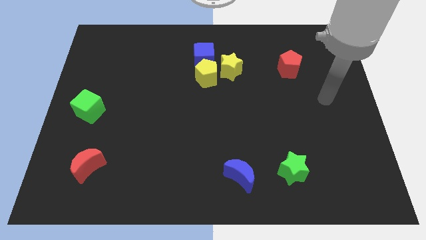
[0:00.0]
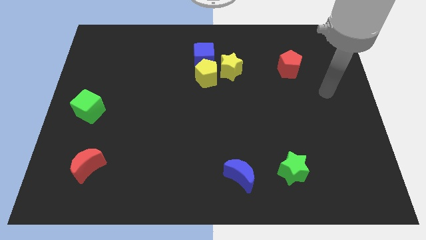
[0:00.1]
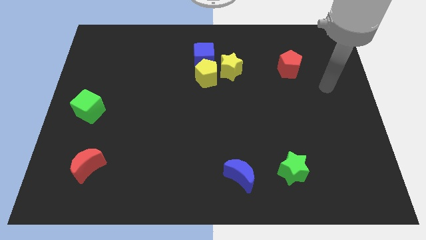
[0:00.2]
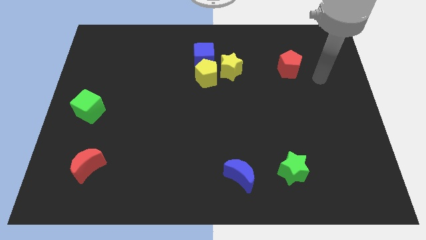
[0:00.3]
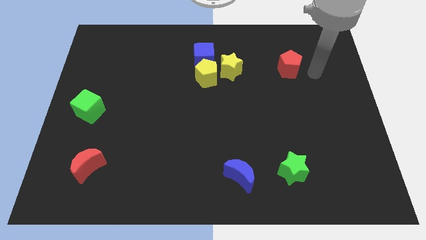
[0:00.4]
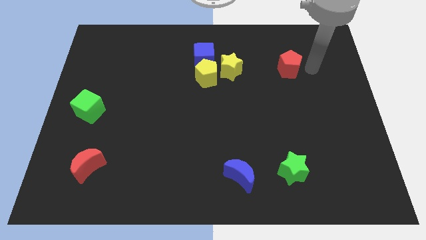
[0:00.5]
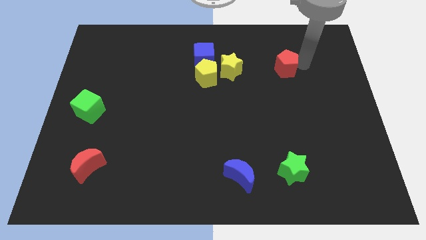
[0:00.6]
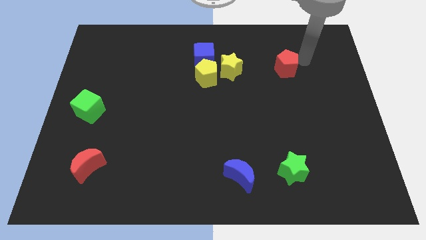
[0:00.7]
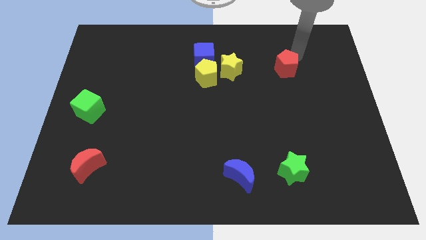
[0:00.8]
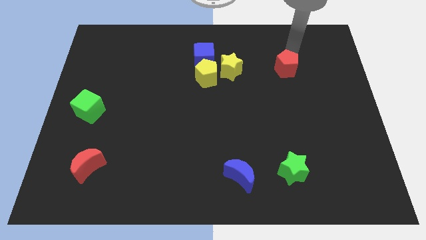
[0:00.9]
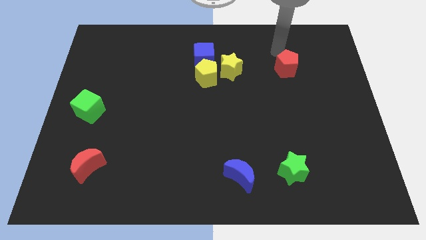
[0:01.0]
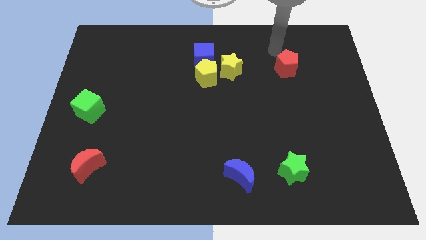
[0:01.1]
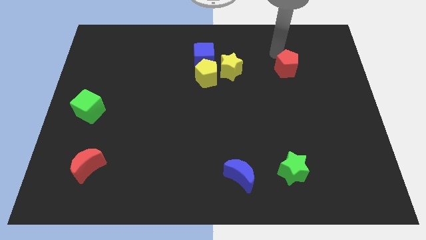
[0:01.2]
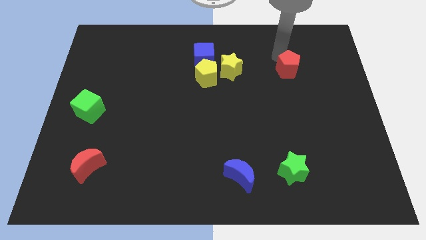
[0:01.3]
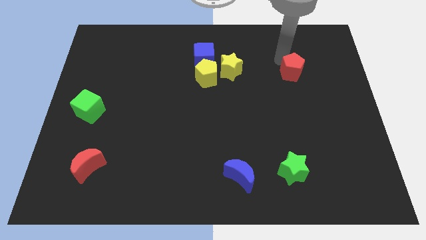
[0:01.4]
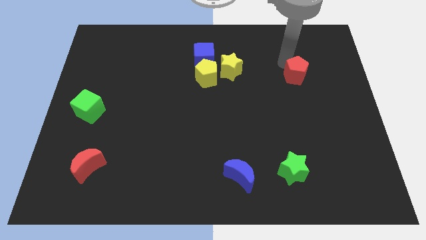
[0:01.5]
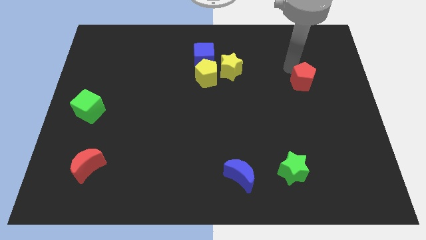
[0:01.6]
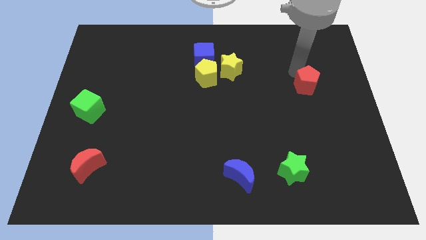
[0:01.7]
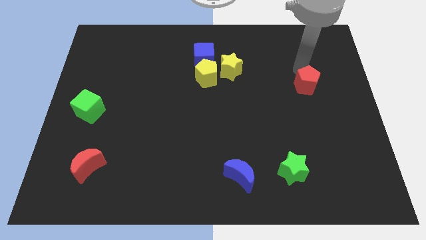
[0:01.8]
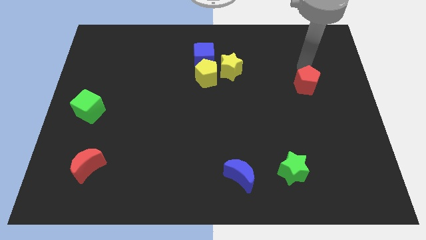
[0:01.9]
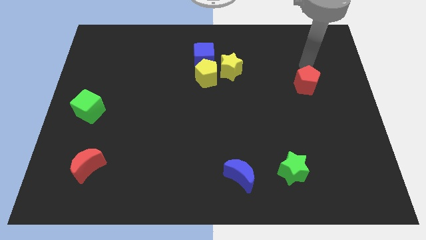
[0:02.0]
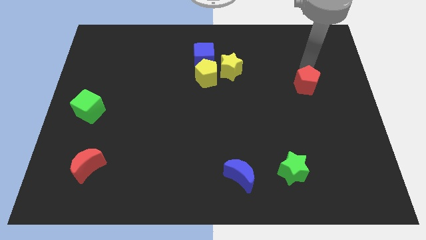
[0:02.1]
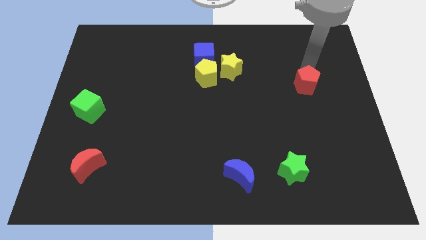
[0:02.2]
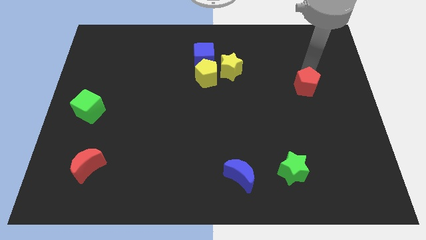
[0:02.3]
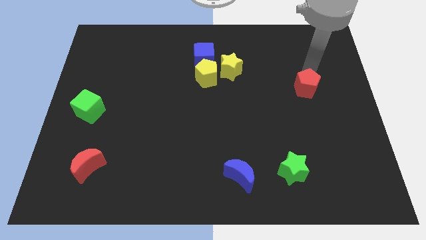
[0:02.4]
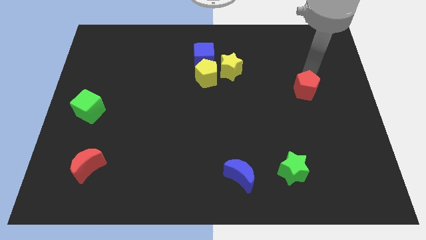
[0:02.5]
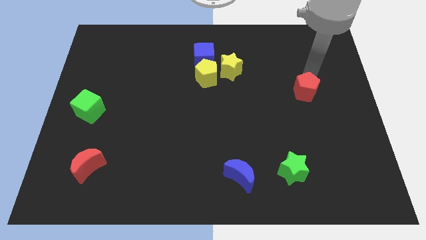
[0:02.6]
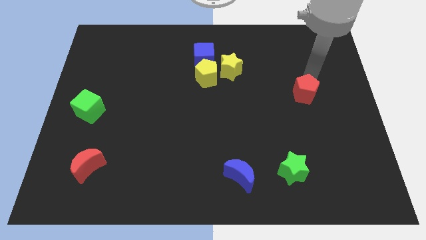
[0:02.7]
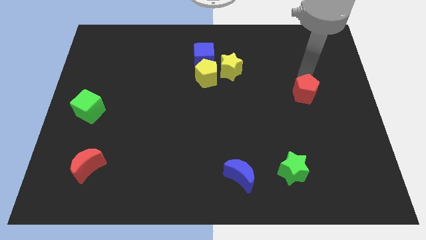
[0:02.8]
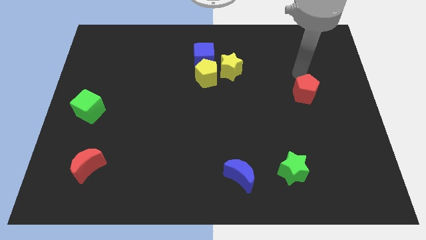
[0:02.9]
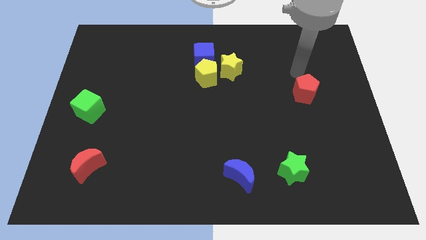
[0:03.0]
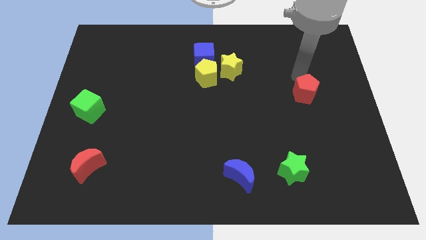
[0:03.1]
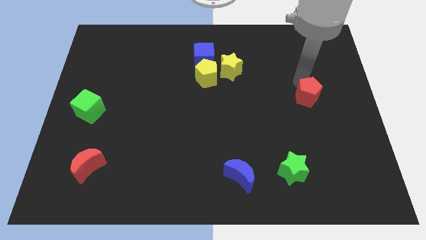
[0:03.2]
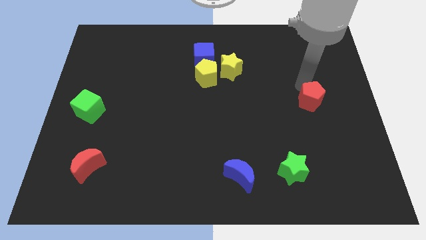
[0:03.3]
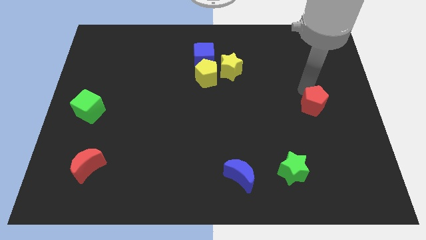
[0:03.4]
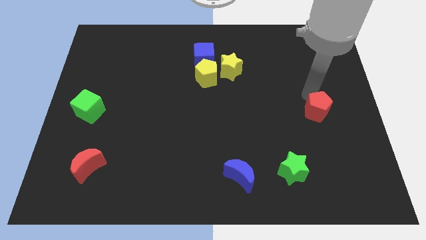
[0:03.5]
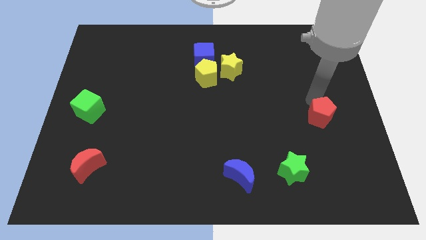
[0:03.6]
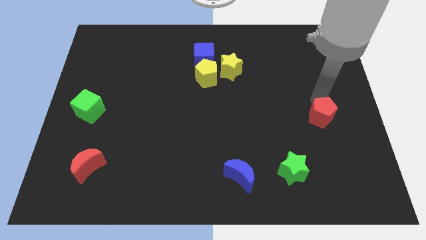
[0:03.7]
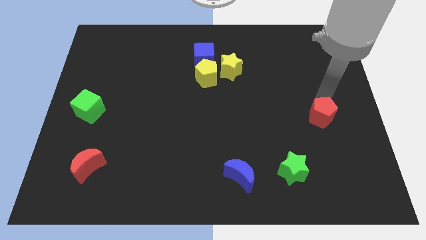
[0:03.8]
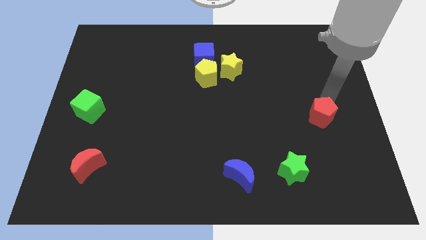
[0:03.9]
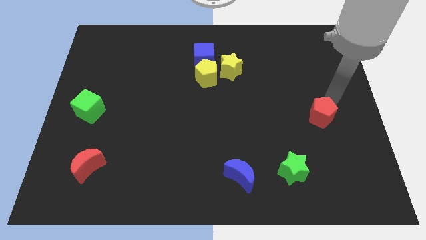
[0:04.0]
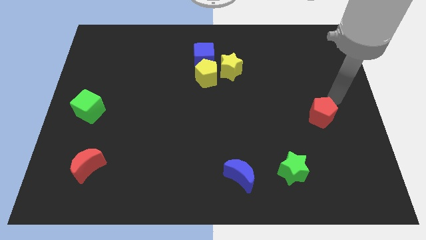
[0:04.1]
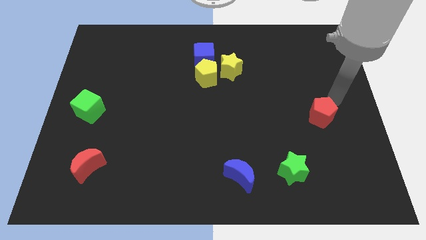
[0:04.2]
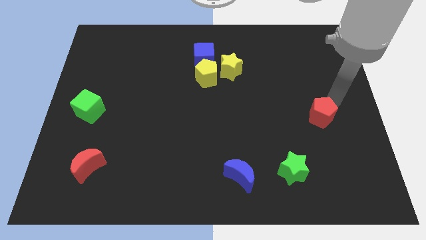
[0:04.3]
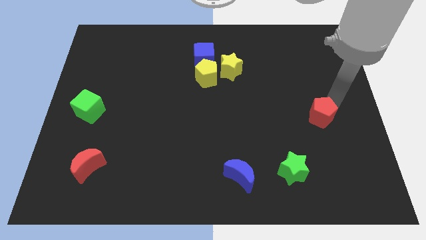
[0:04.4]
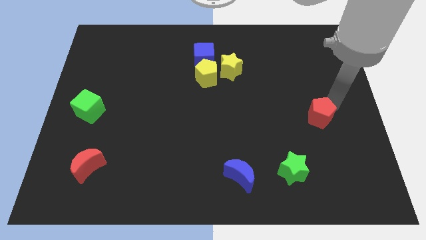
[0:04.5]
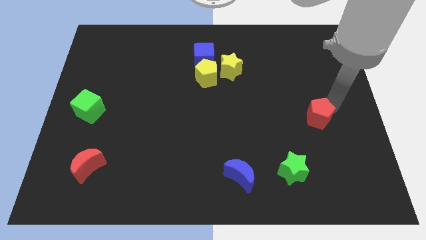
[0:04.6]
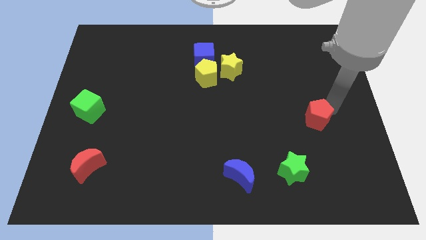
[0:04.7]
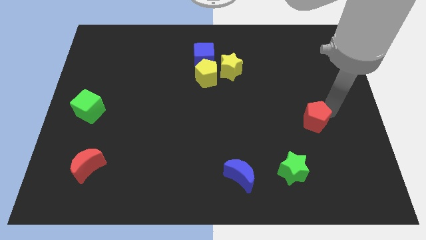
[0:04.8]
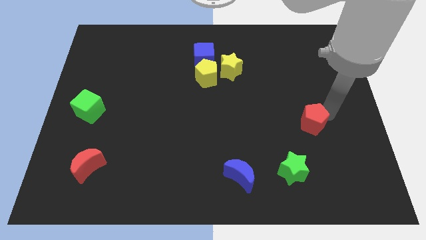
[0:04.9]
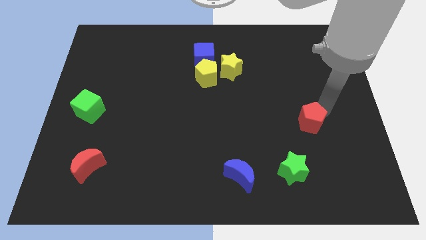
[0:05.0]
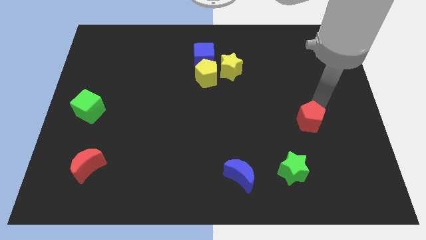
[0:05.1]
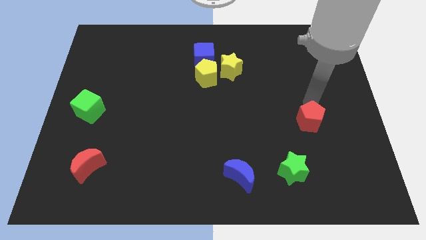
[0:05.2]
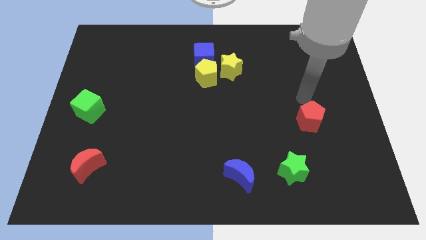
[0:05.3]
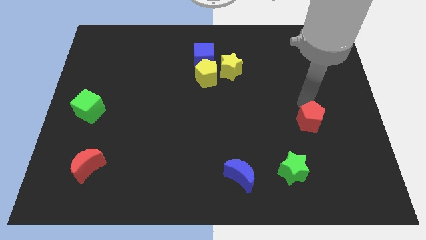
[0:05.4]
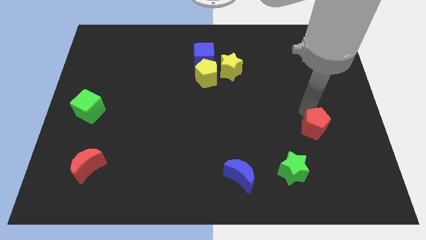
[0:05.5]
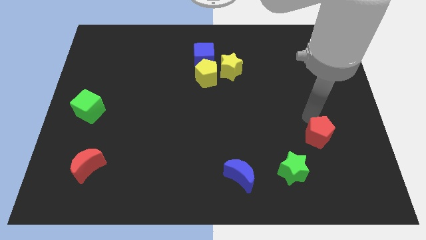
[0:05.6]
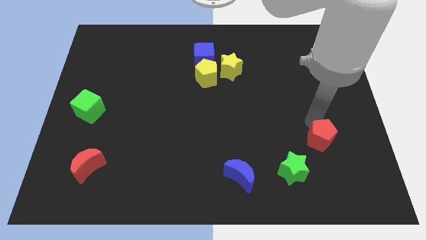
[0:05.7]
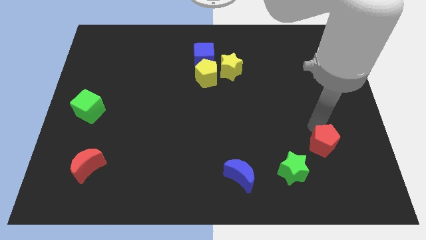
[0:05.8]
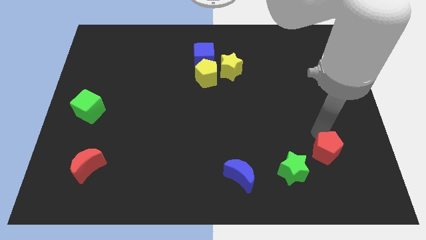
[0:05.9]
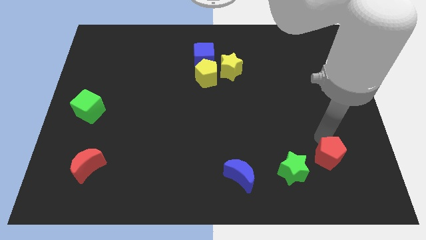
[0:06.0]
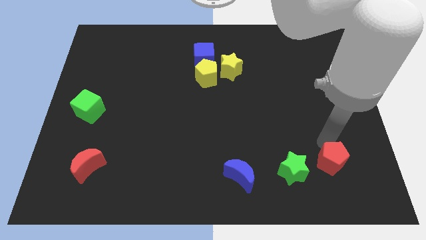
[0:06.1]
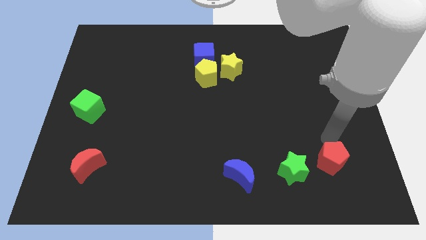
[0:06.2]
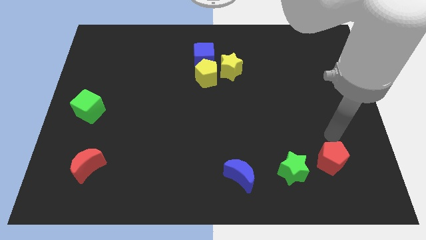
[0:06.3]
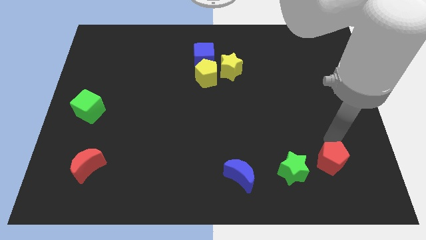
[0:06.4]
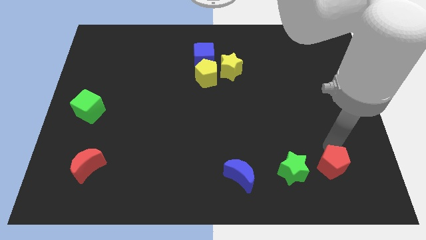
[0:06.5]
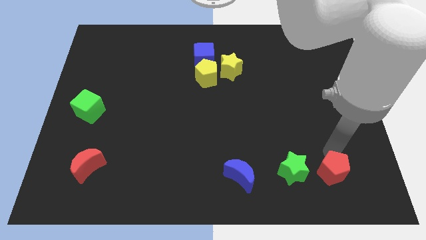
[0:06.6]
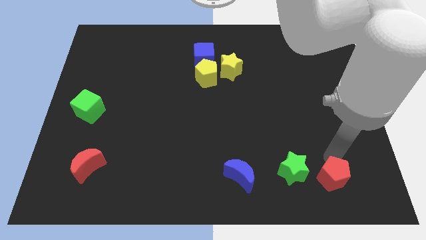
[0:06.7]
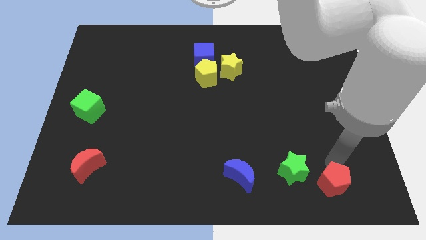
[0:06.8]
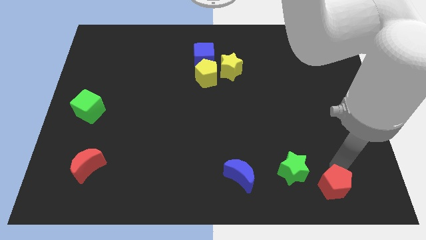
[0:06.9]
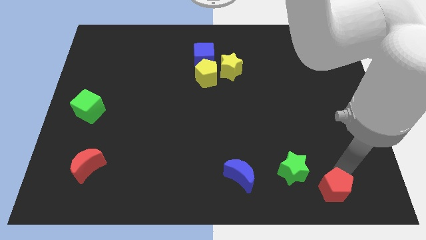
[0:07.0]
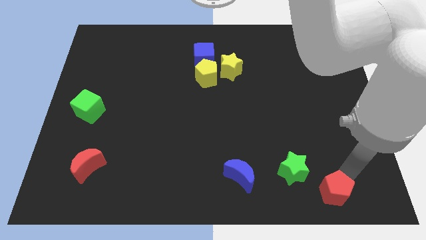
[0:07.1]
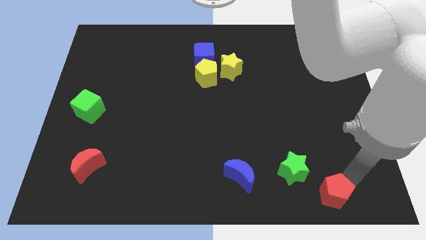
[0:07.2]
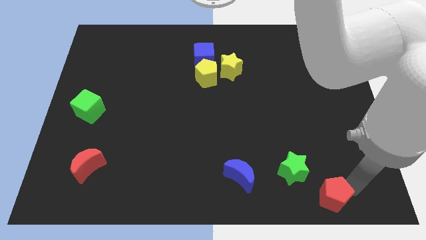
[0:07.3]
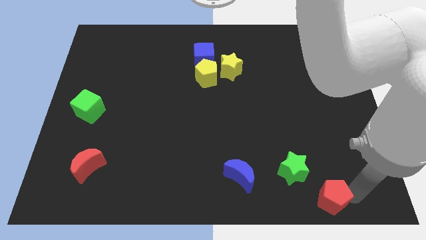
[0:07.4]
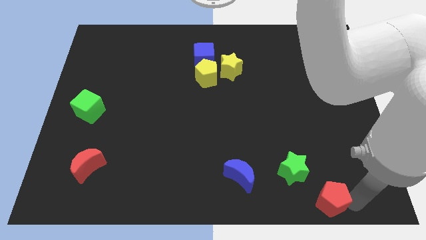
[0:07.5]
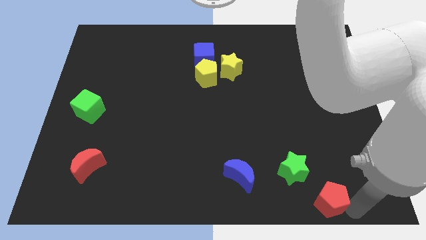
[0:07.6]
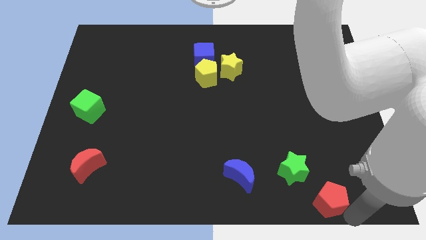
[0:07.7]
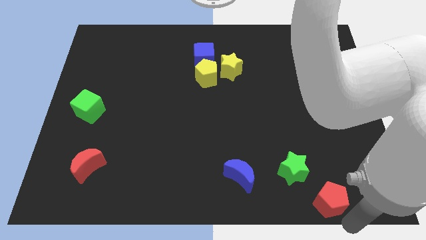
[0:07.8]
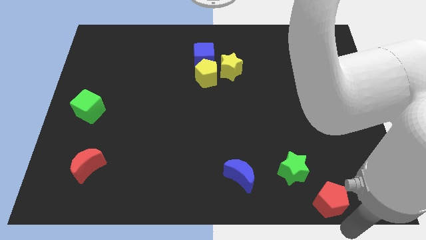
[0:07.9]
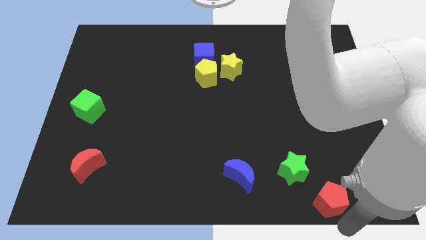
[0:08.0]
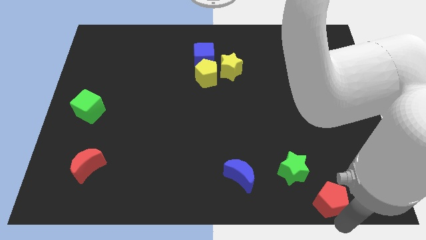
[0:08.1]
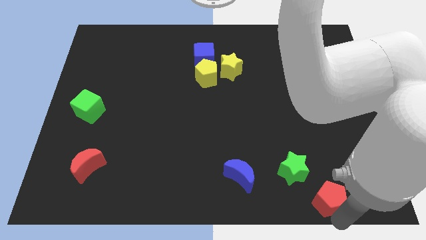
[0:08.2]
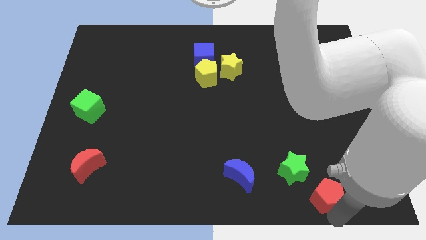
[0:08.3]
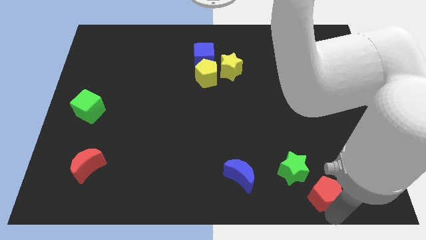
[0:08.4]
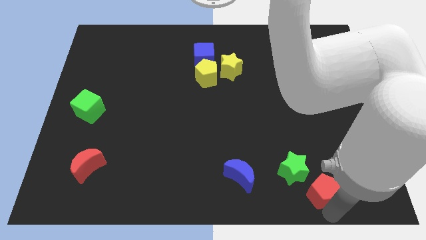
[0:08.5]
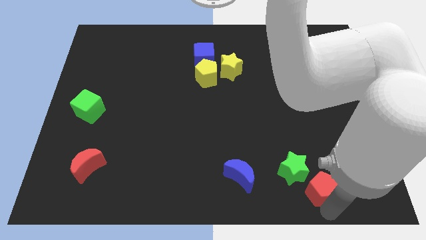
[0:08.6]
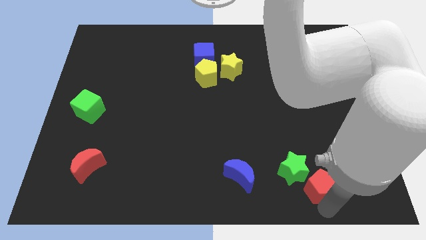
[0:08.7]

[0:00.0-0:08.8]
push the red pentagon to the right side of the blue moon
